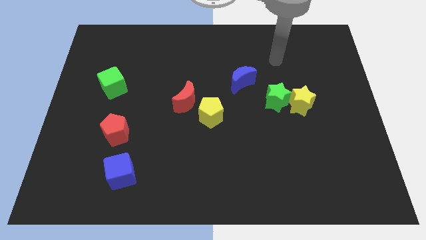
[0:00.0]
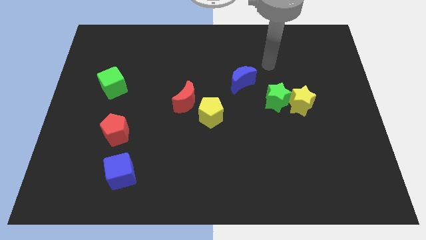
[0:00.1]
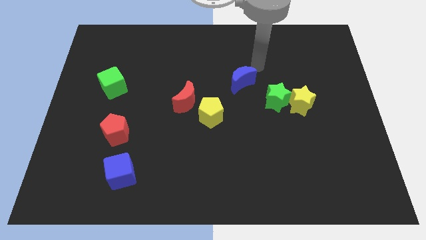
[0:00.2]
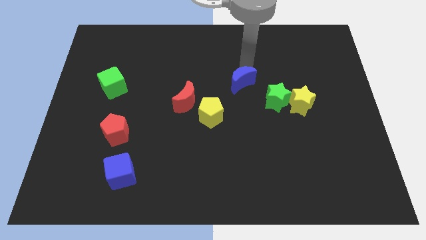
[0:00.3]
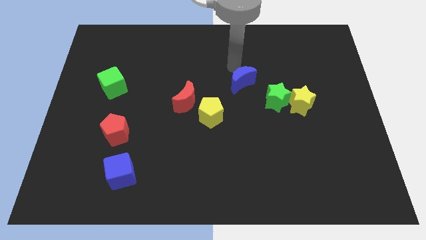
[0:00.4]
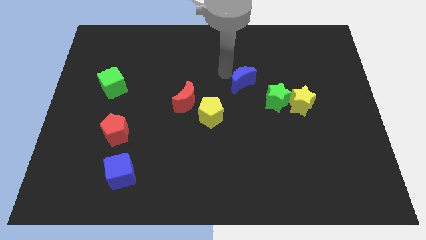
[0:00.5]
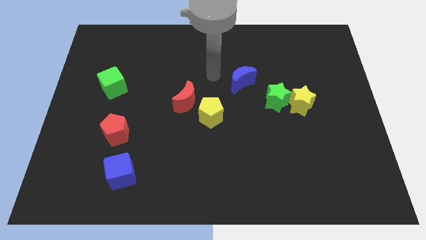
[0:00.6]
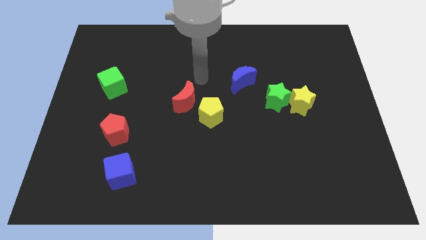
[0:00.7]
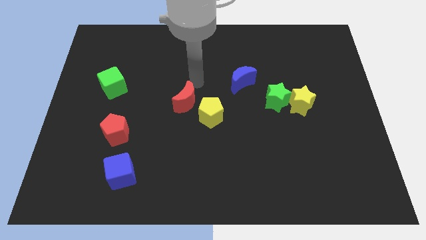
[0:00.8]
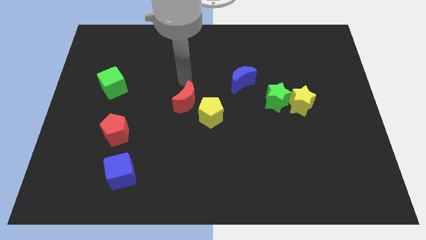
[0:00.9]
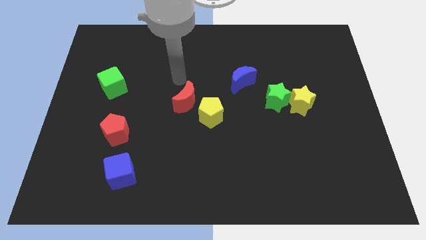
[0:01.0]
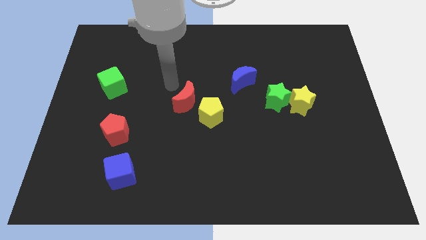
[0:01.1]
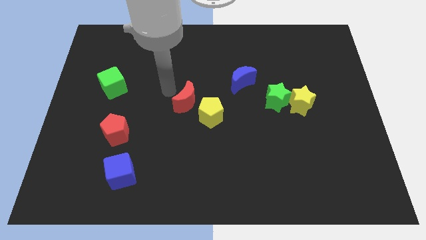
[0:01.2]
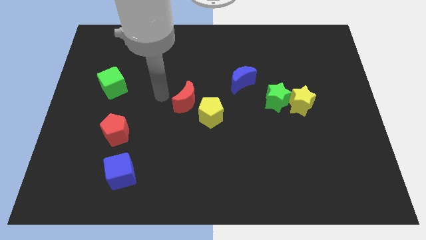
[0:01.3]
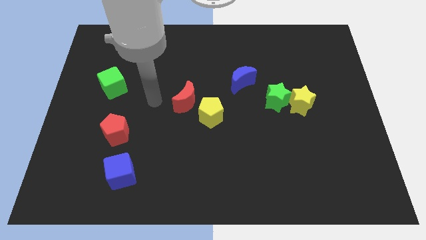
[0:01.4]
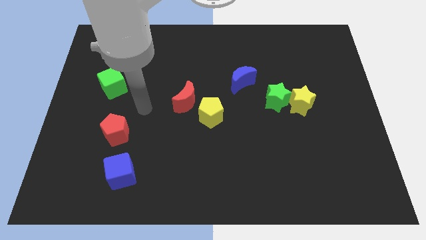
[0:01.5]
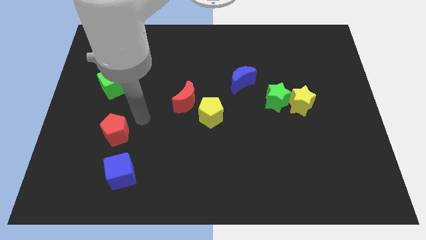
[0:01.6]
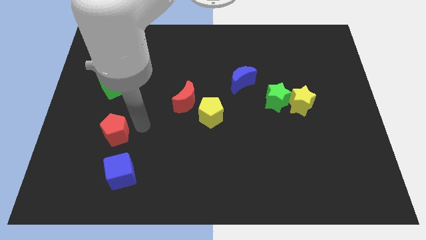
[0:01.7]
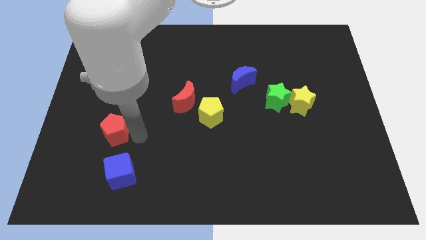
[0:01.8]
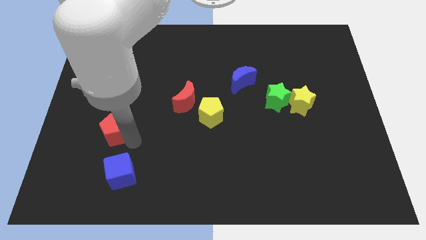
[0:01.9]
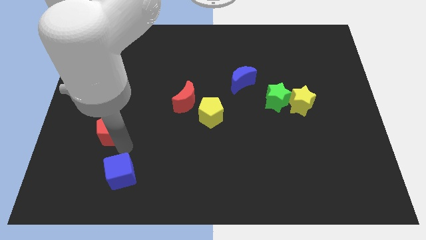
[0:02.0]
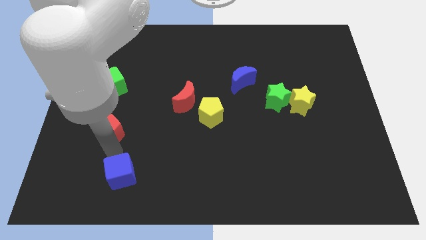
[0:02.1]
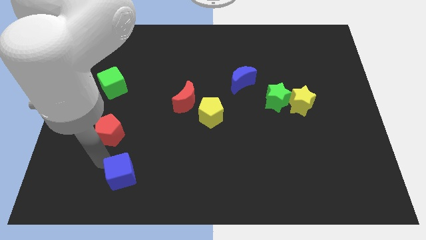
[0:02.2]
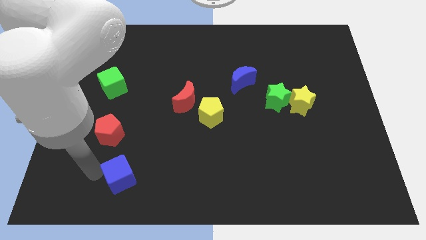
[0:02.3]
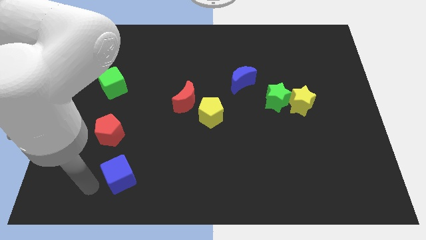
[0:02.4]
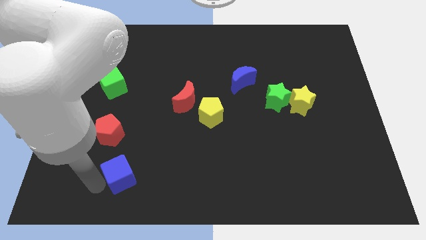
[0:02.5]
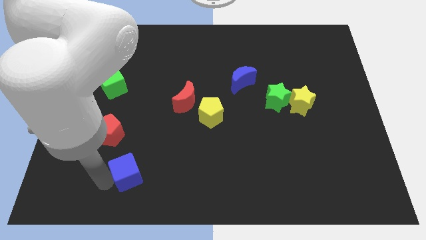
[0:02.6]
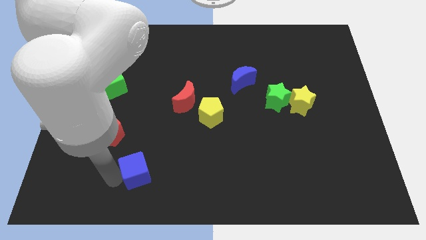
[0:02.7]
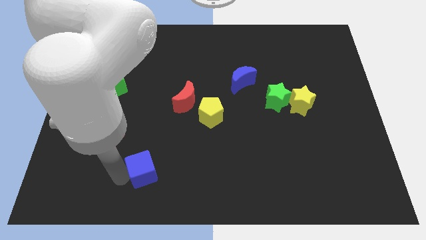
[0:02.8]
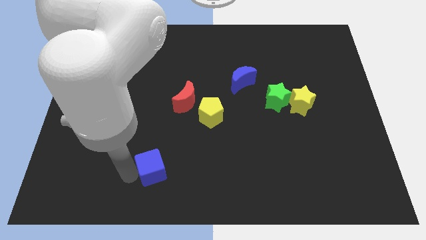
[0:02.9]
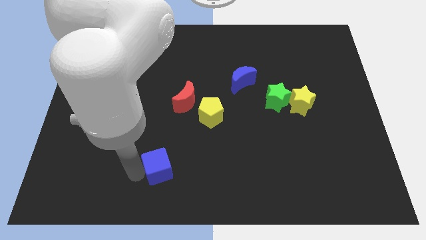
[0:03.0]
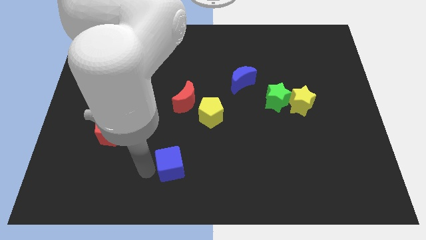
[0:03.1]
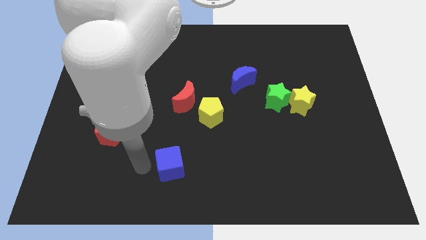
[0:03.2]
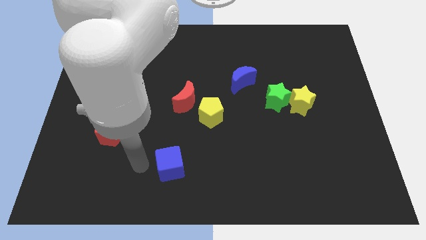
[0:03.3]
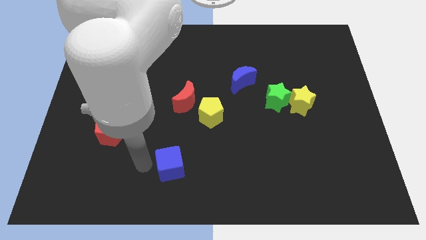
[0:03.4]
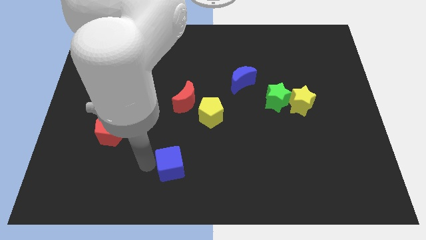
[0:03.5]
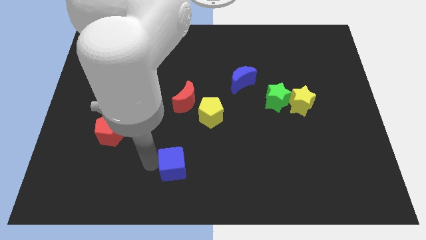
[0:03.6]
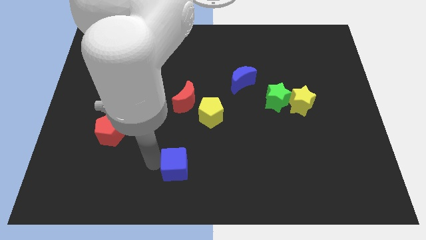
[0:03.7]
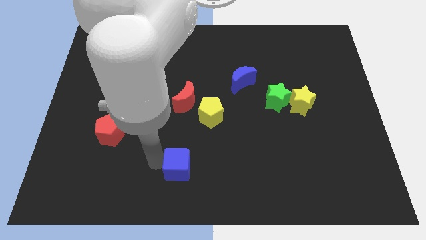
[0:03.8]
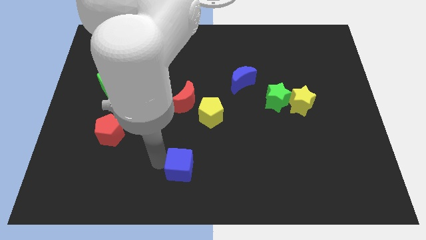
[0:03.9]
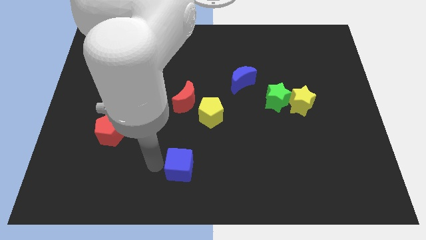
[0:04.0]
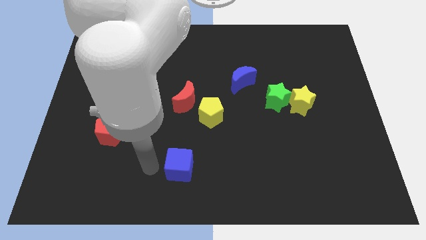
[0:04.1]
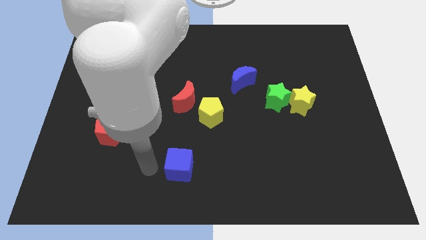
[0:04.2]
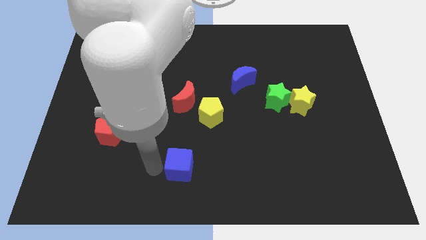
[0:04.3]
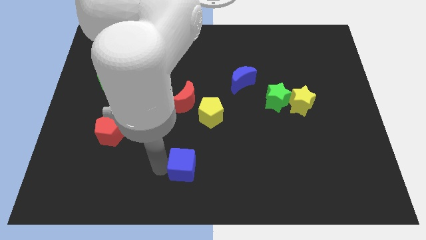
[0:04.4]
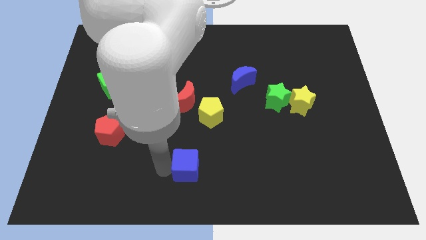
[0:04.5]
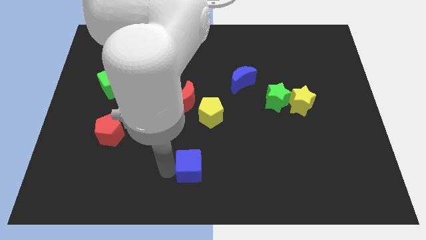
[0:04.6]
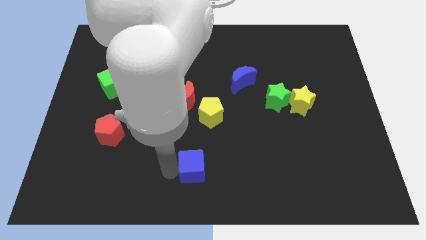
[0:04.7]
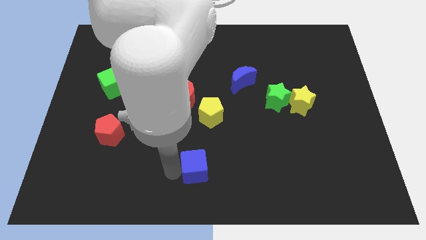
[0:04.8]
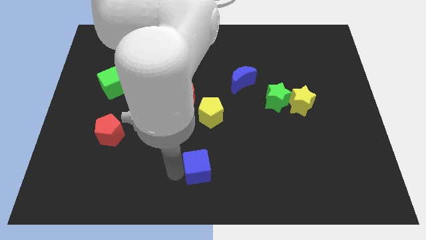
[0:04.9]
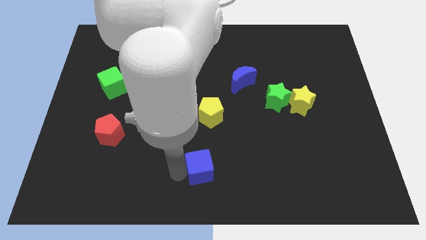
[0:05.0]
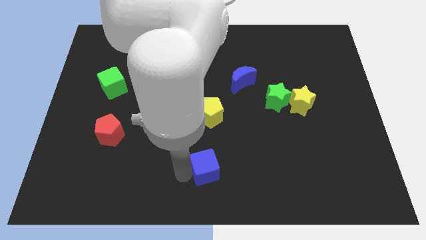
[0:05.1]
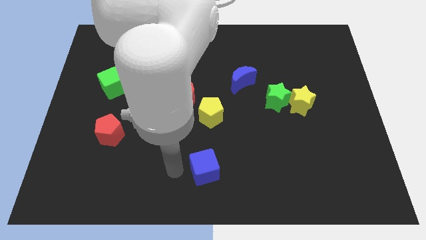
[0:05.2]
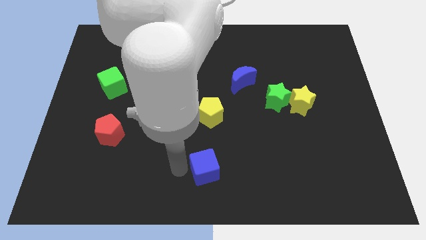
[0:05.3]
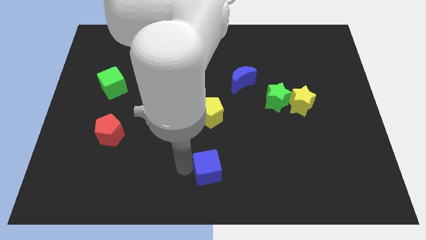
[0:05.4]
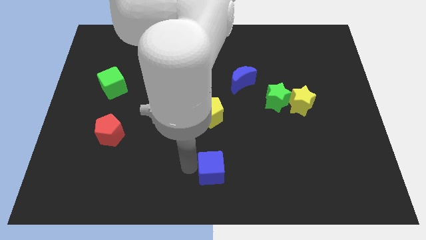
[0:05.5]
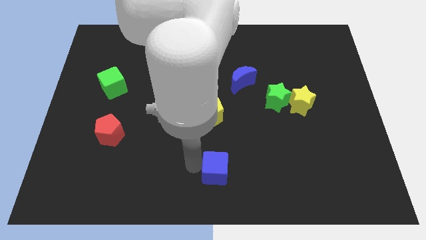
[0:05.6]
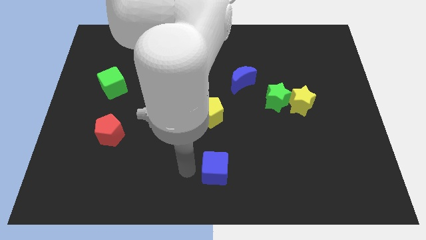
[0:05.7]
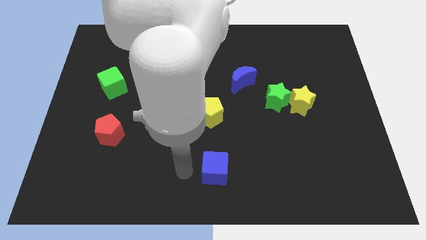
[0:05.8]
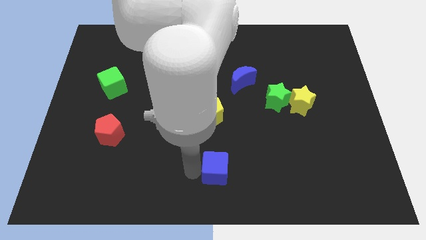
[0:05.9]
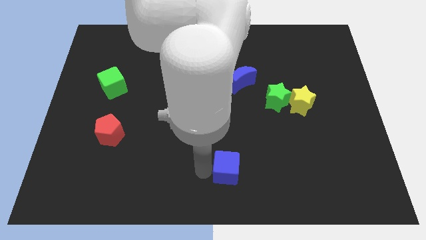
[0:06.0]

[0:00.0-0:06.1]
move the blue cube right

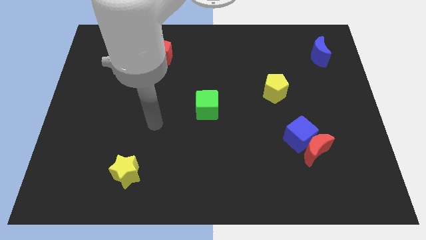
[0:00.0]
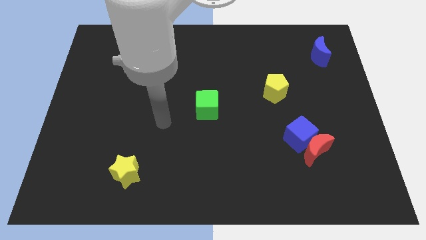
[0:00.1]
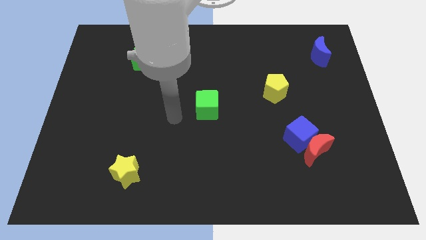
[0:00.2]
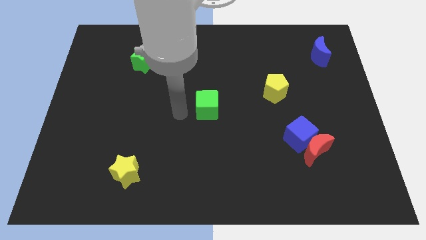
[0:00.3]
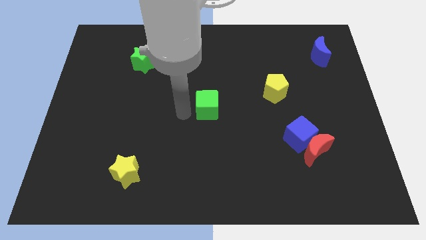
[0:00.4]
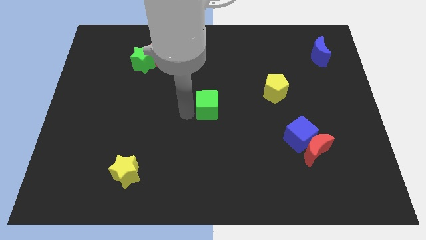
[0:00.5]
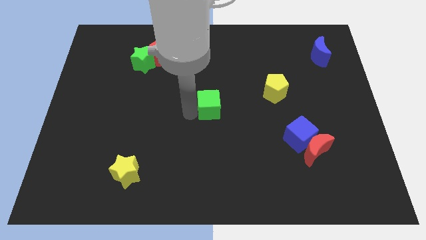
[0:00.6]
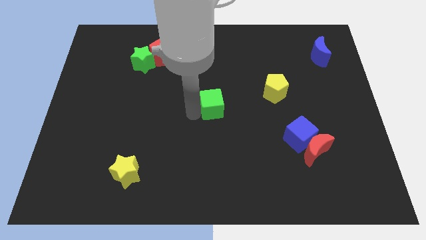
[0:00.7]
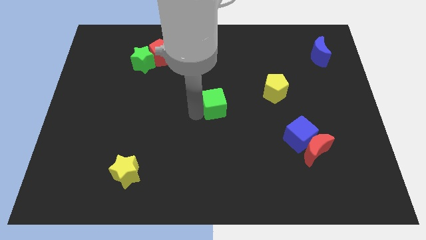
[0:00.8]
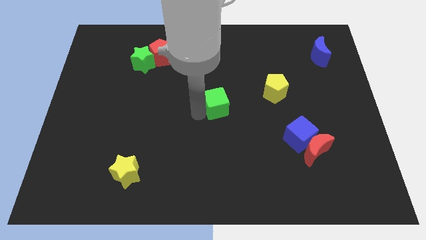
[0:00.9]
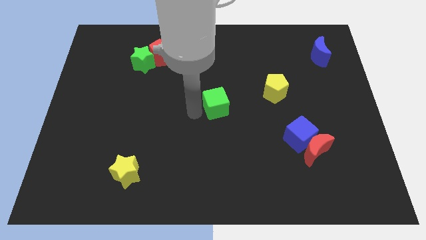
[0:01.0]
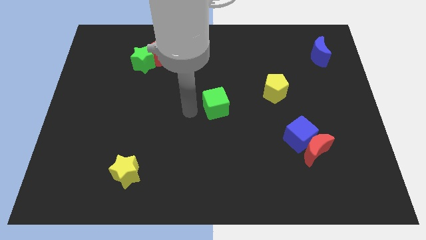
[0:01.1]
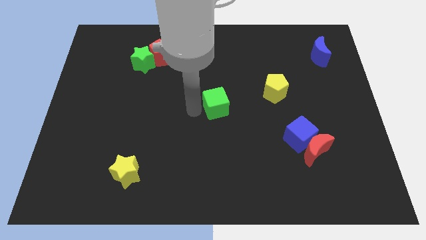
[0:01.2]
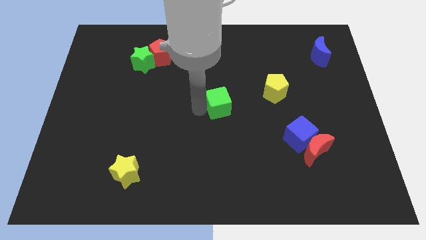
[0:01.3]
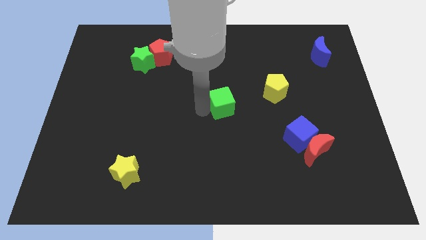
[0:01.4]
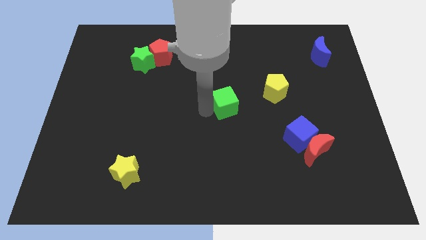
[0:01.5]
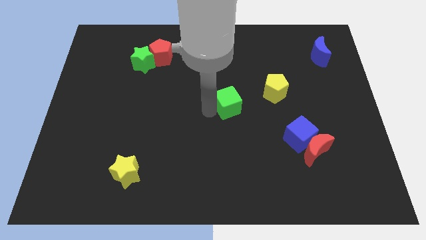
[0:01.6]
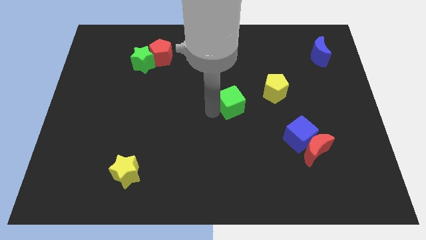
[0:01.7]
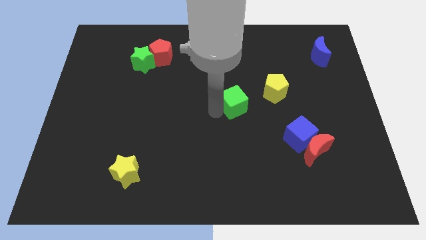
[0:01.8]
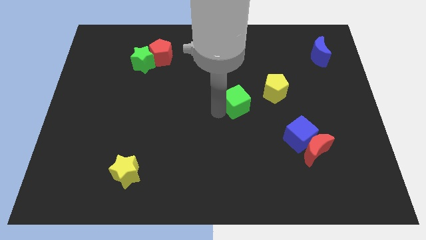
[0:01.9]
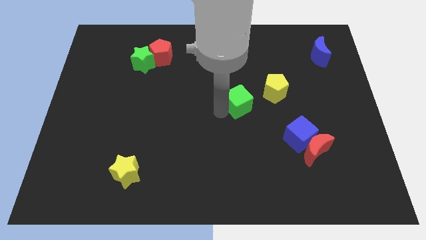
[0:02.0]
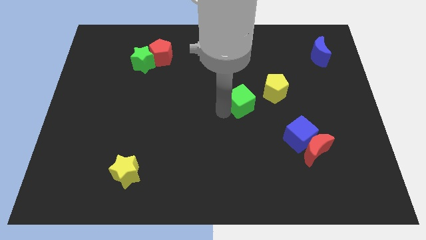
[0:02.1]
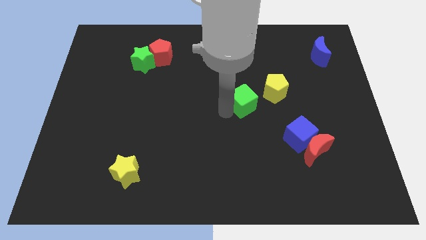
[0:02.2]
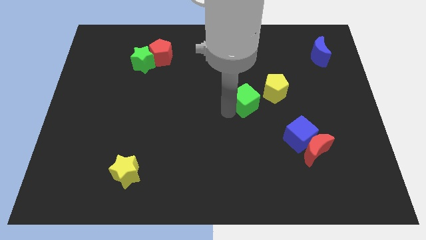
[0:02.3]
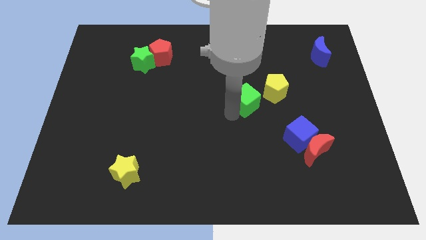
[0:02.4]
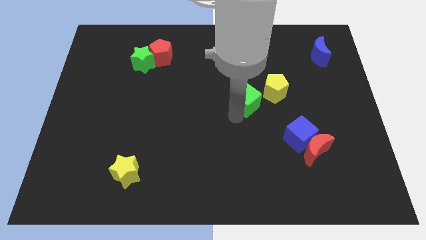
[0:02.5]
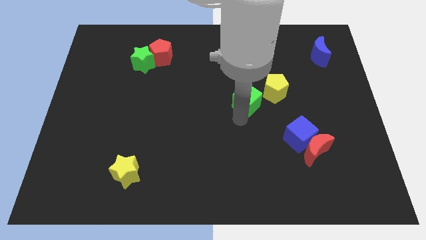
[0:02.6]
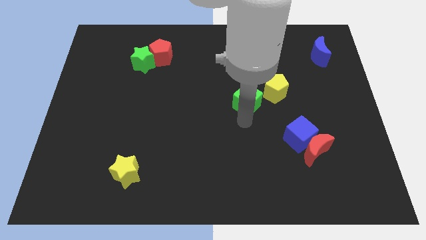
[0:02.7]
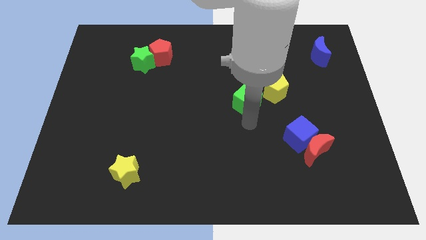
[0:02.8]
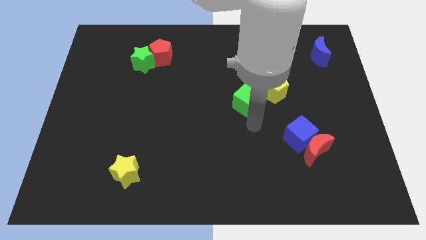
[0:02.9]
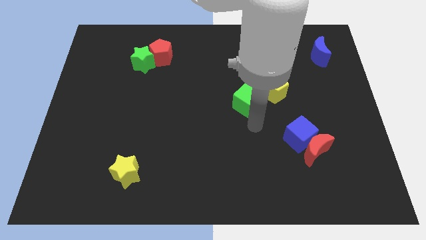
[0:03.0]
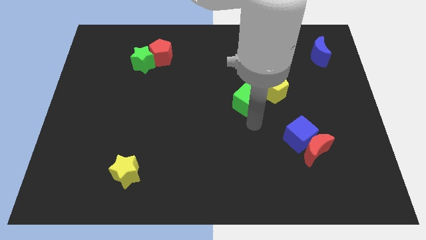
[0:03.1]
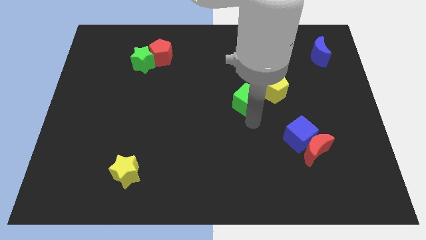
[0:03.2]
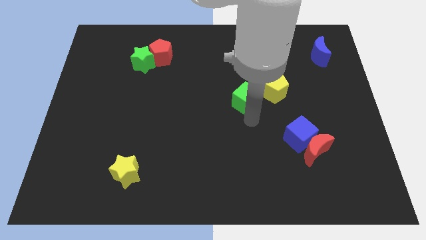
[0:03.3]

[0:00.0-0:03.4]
slide the green cube a little bit up and to the right diagonally
